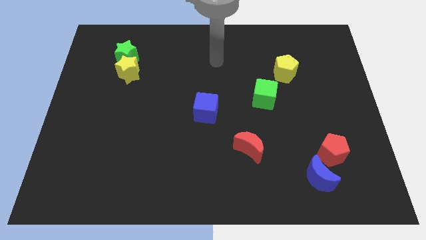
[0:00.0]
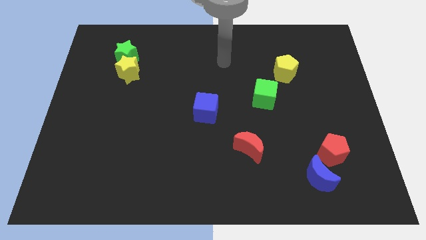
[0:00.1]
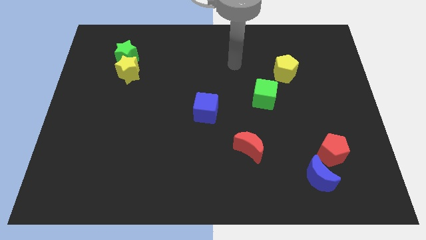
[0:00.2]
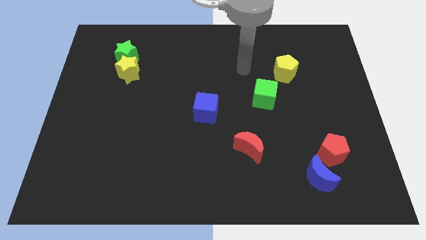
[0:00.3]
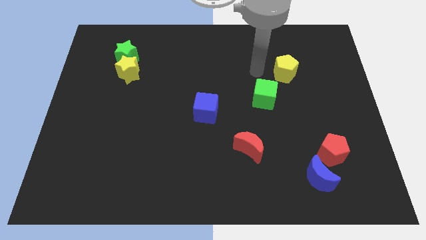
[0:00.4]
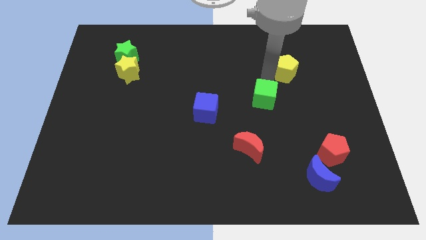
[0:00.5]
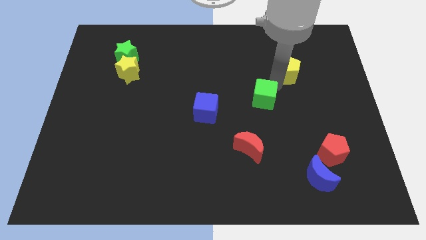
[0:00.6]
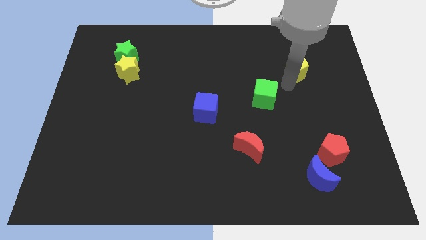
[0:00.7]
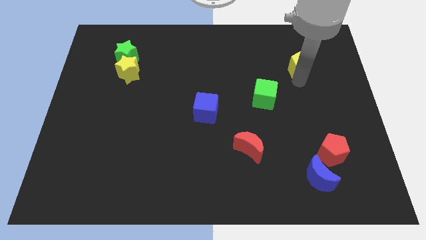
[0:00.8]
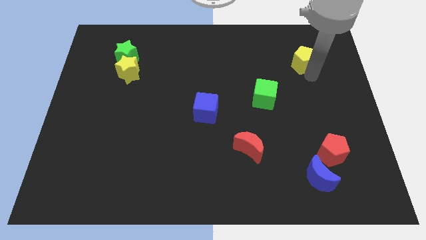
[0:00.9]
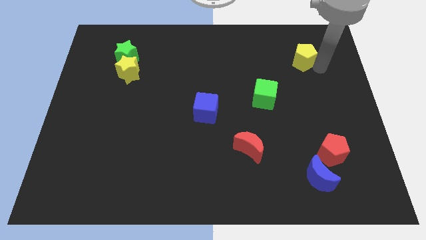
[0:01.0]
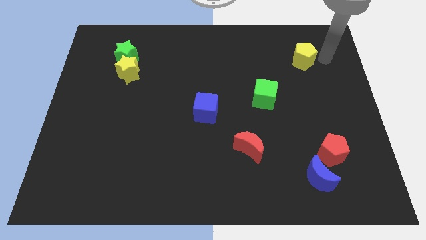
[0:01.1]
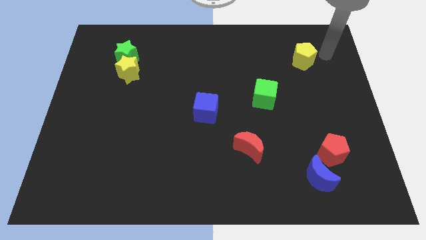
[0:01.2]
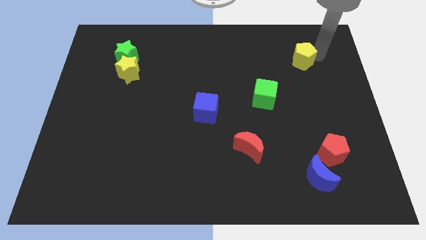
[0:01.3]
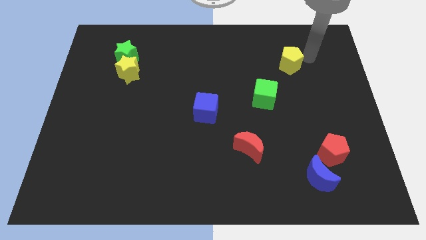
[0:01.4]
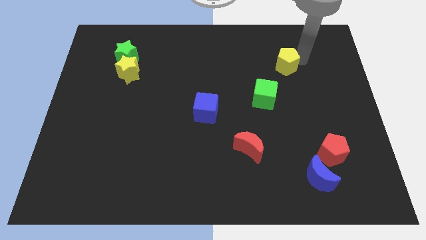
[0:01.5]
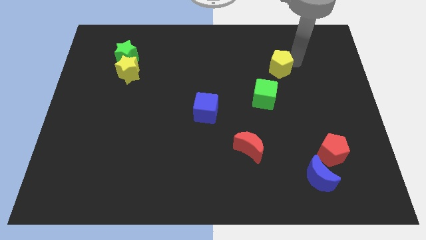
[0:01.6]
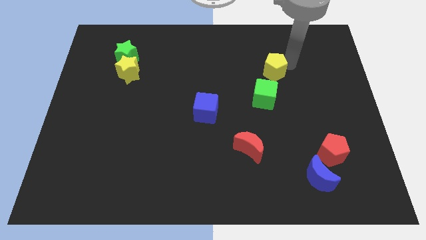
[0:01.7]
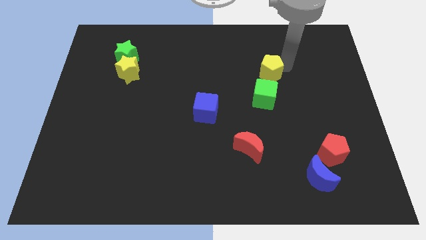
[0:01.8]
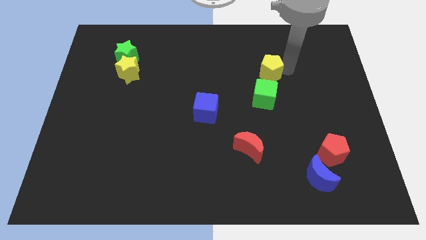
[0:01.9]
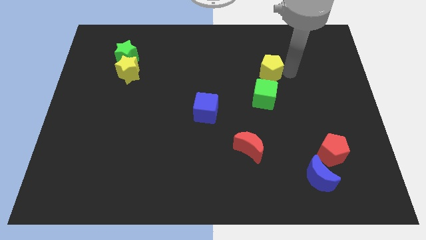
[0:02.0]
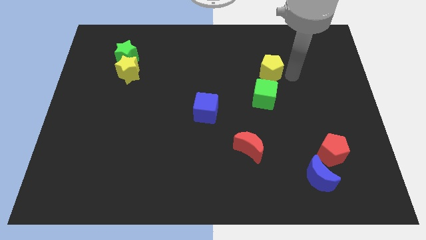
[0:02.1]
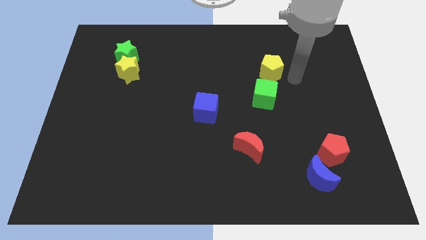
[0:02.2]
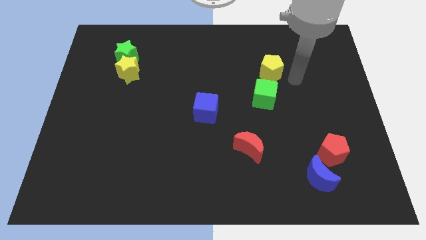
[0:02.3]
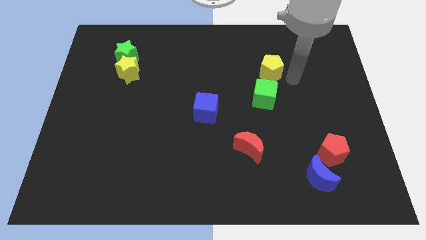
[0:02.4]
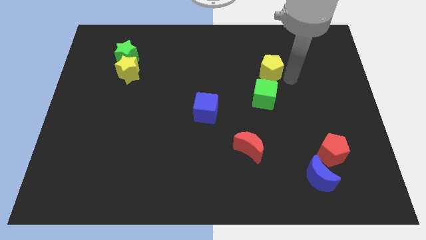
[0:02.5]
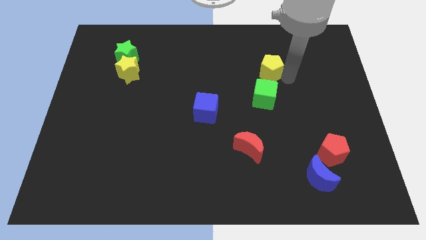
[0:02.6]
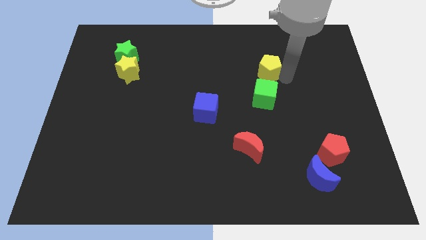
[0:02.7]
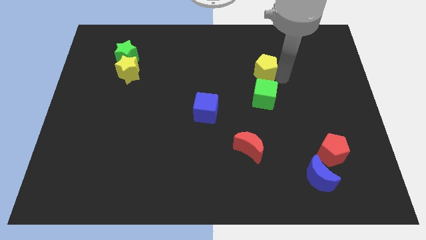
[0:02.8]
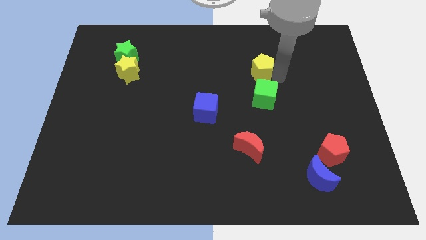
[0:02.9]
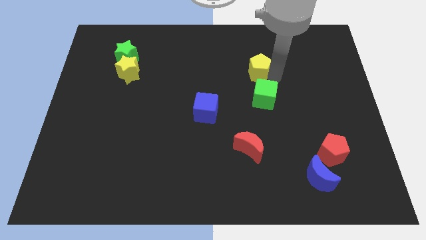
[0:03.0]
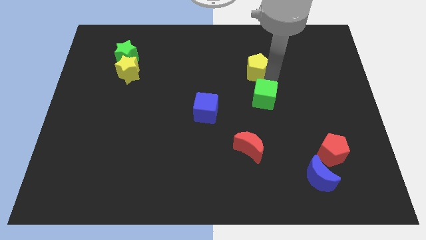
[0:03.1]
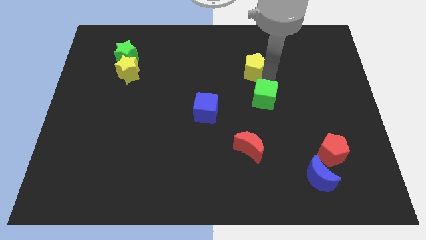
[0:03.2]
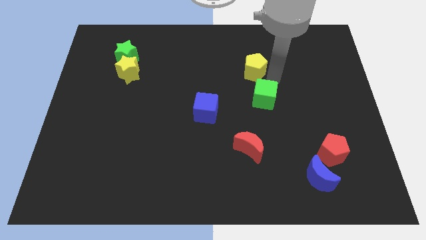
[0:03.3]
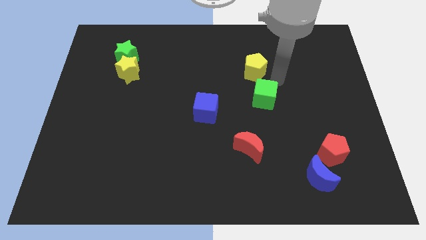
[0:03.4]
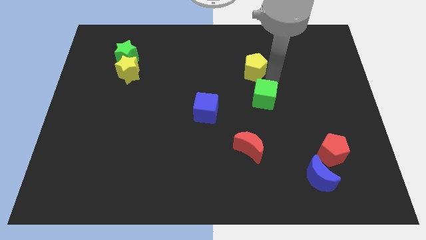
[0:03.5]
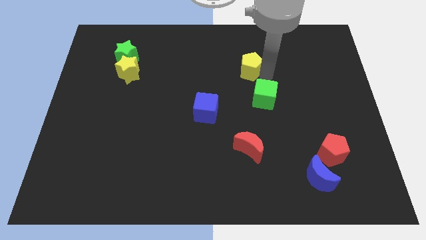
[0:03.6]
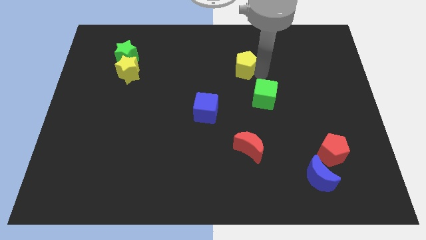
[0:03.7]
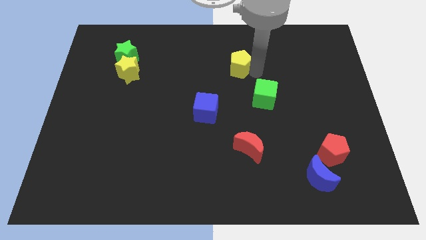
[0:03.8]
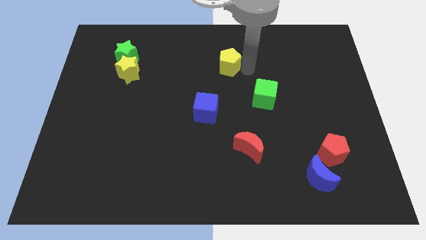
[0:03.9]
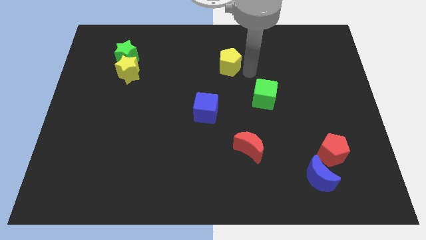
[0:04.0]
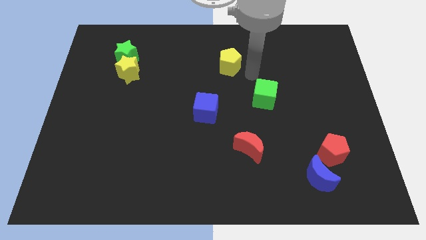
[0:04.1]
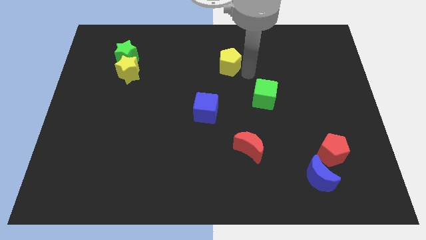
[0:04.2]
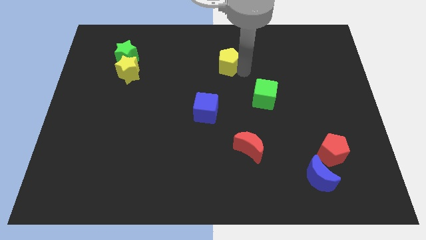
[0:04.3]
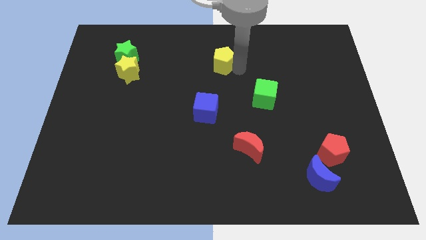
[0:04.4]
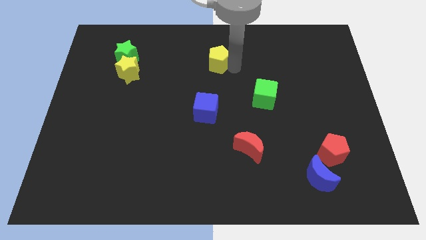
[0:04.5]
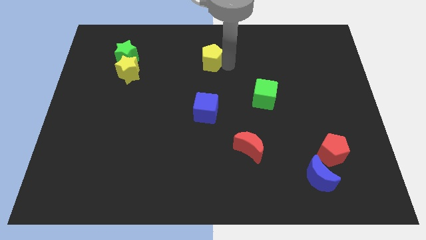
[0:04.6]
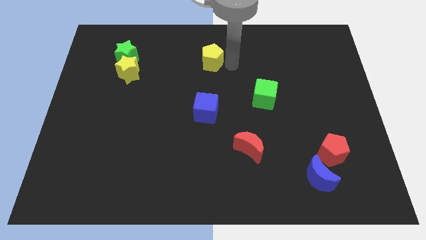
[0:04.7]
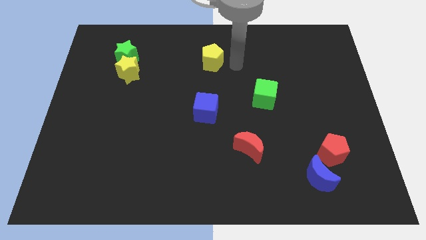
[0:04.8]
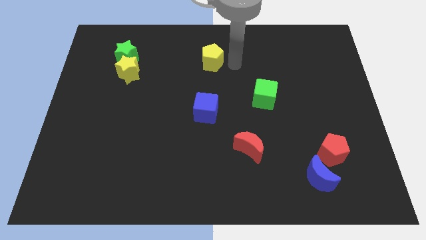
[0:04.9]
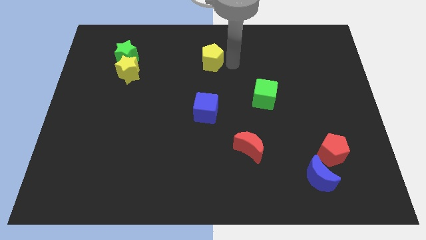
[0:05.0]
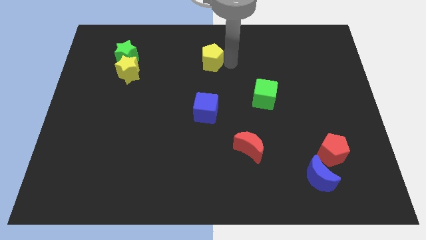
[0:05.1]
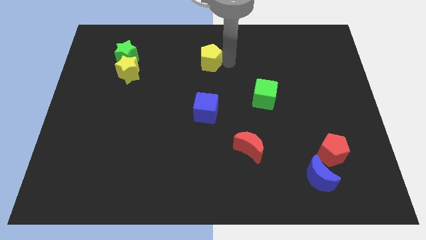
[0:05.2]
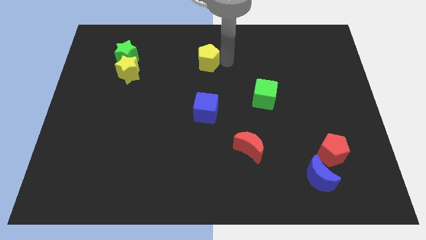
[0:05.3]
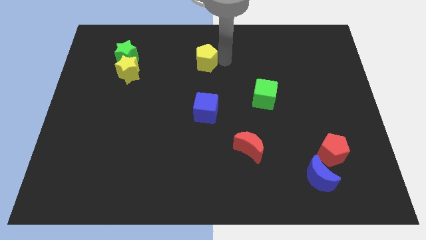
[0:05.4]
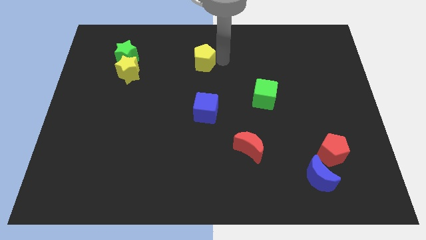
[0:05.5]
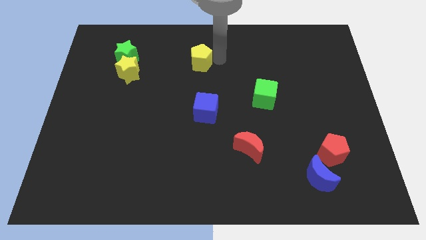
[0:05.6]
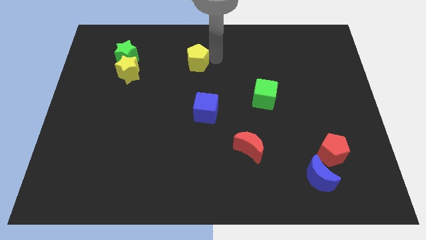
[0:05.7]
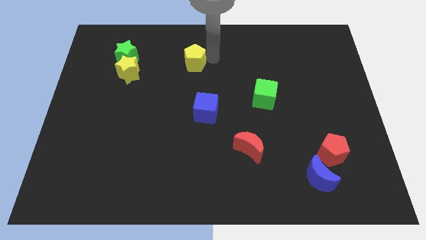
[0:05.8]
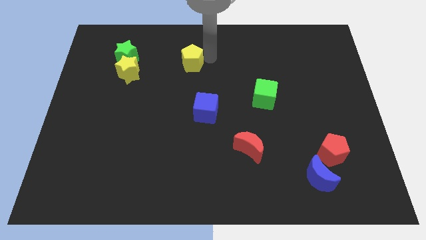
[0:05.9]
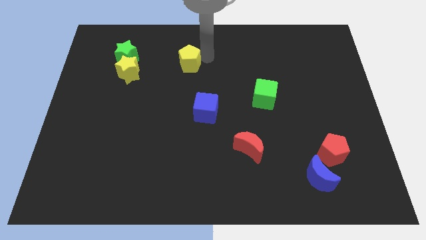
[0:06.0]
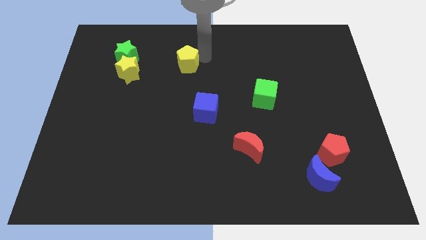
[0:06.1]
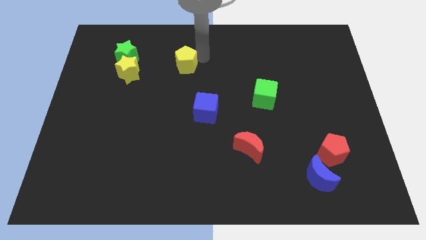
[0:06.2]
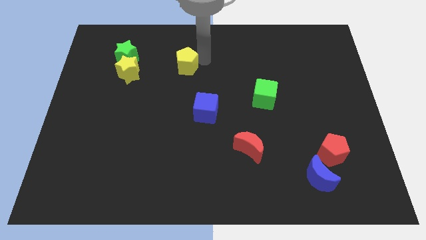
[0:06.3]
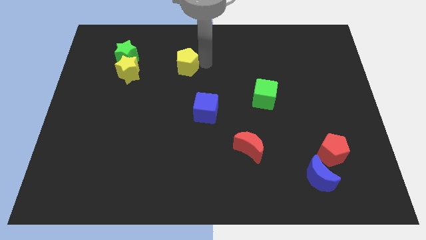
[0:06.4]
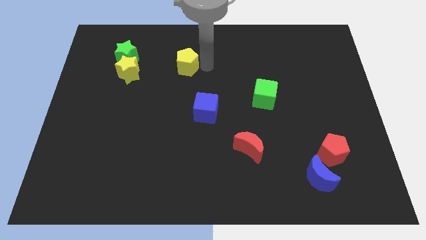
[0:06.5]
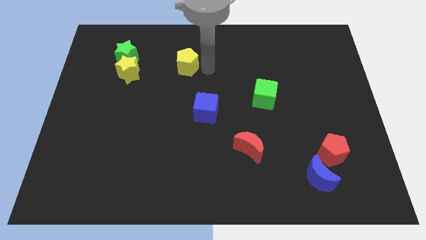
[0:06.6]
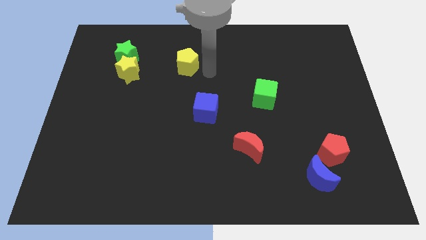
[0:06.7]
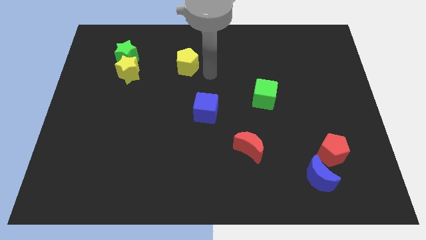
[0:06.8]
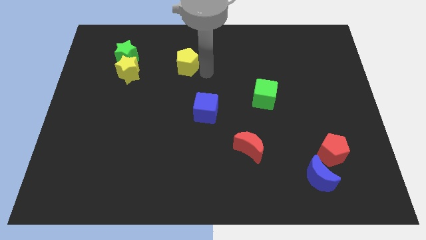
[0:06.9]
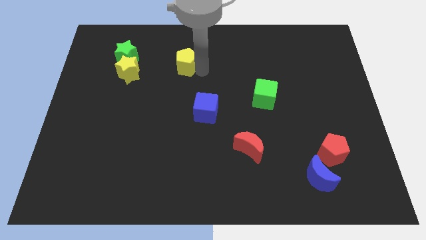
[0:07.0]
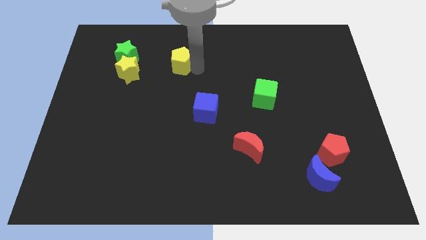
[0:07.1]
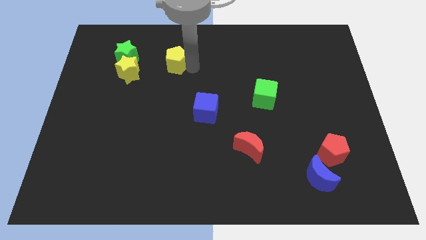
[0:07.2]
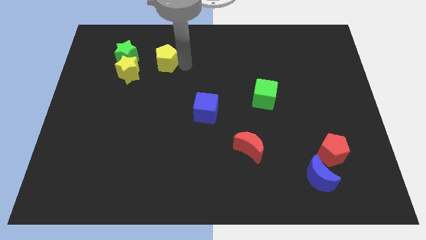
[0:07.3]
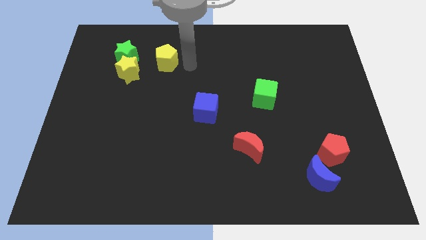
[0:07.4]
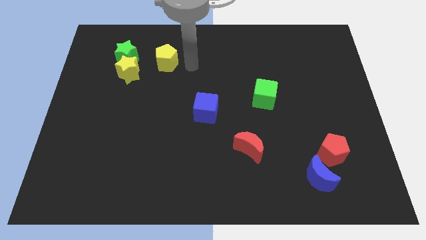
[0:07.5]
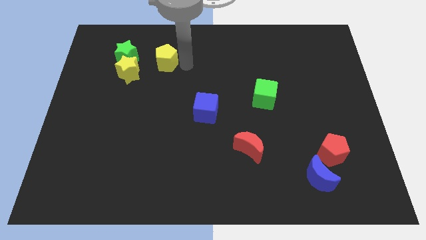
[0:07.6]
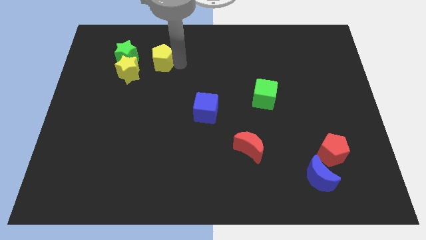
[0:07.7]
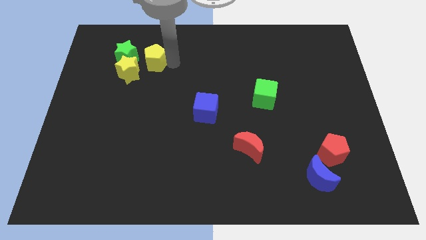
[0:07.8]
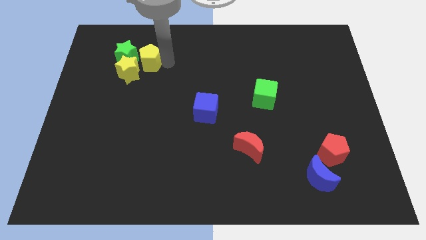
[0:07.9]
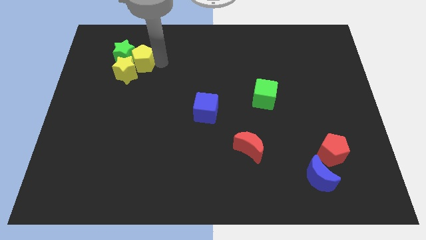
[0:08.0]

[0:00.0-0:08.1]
put the yellow pentagon close to the green star
